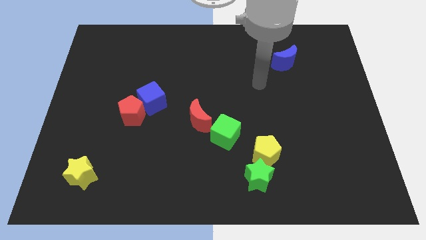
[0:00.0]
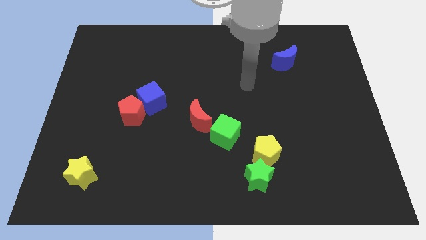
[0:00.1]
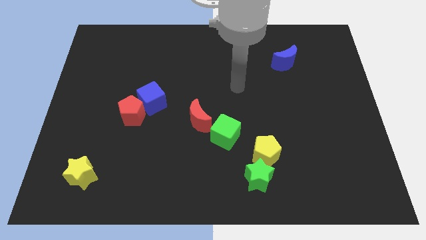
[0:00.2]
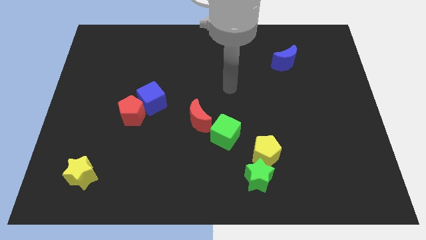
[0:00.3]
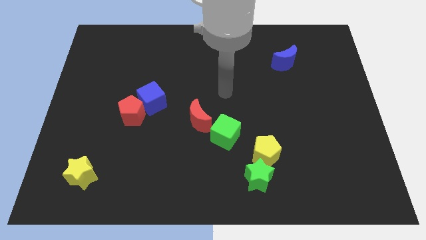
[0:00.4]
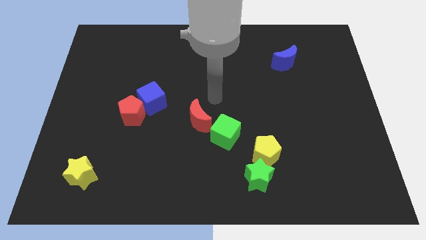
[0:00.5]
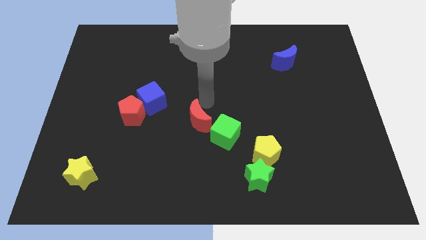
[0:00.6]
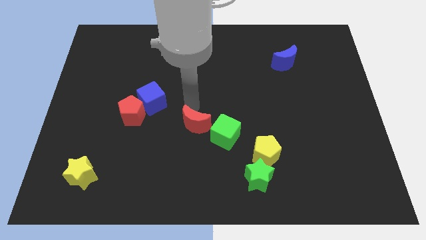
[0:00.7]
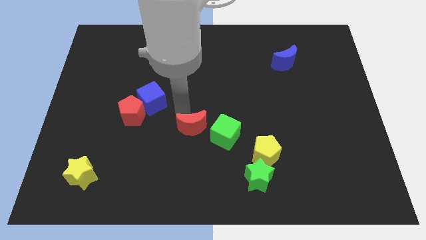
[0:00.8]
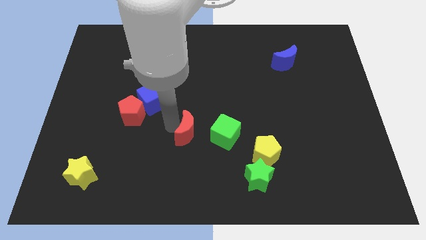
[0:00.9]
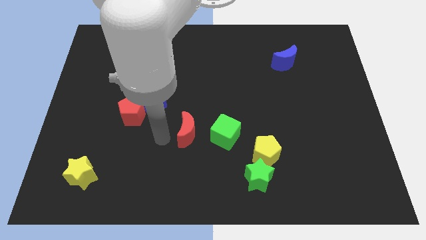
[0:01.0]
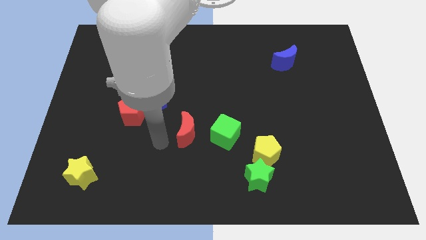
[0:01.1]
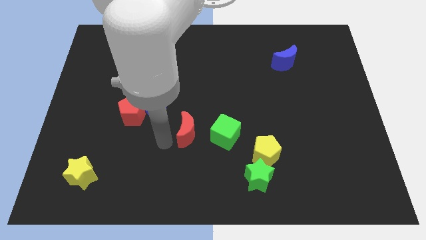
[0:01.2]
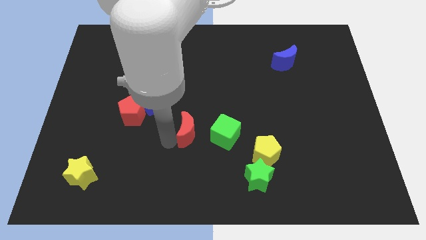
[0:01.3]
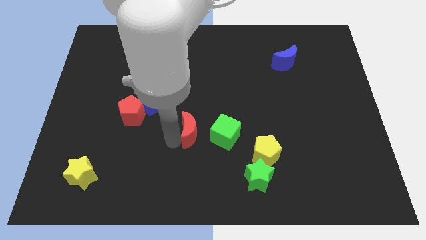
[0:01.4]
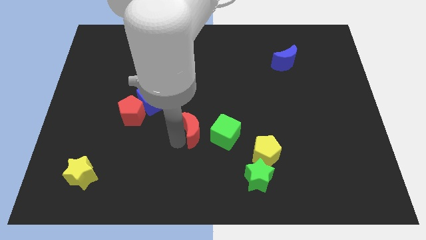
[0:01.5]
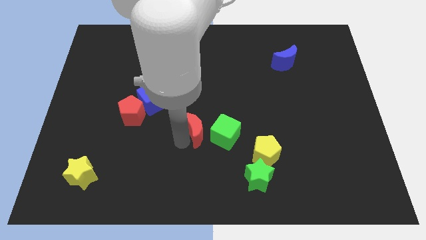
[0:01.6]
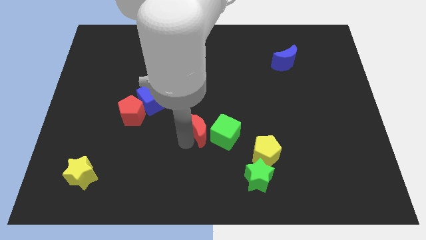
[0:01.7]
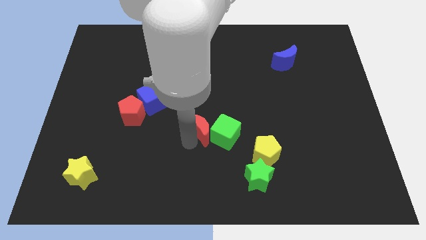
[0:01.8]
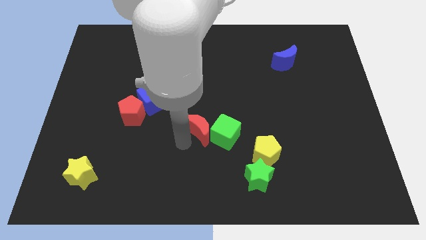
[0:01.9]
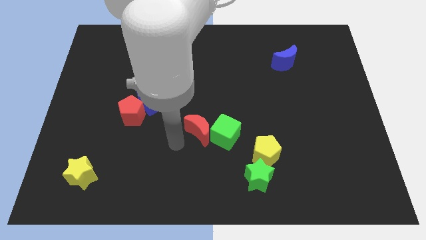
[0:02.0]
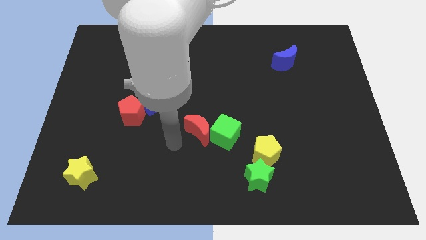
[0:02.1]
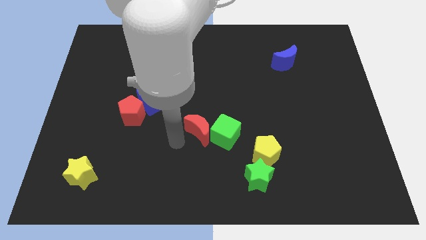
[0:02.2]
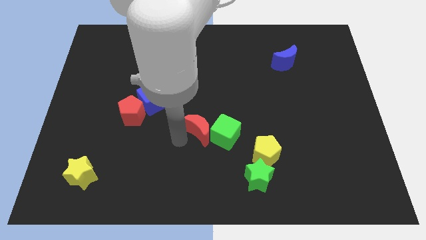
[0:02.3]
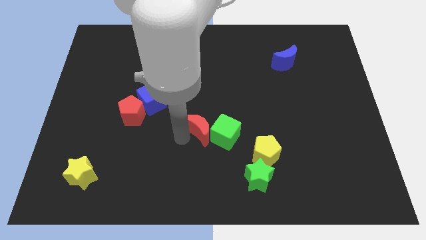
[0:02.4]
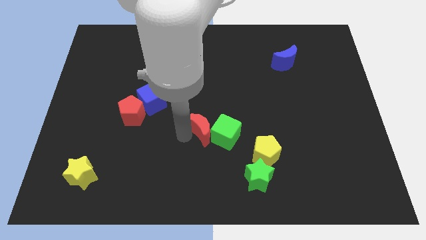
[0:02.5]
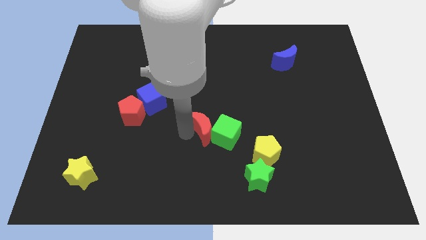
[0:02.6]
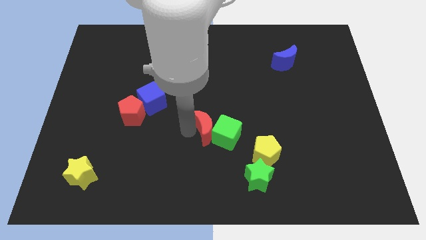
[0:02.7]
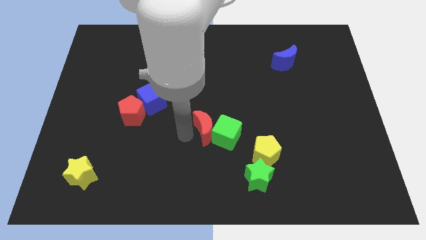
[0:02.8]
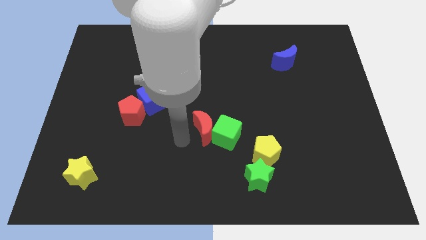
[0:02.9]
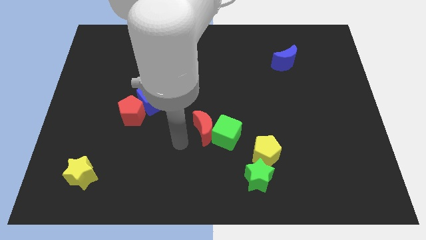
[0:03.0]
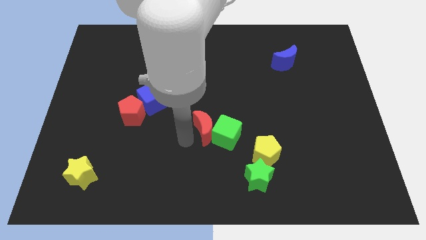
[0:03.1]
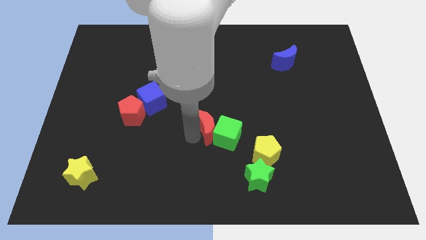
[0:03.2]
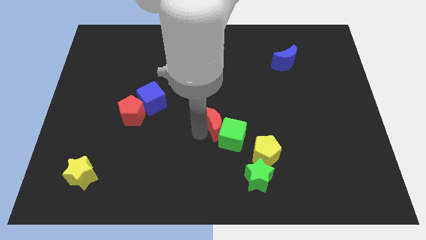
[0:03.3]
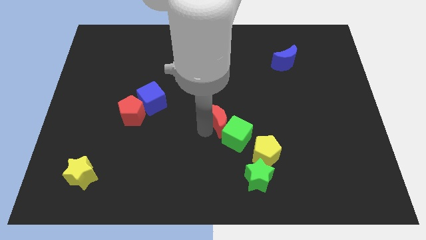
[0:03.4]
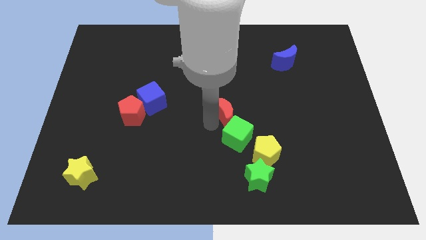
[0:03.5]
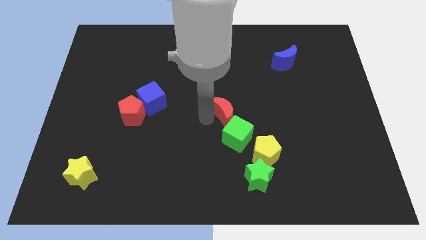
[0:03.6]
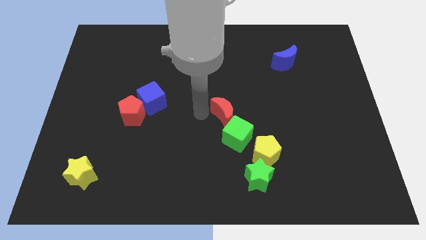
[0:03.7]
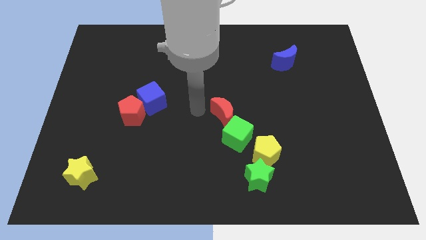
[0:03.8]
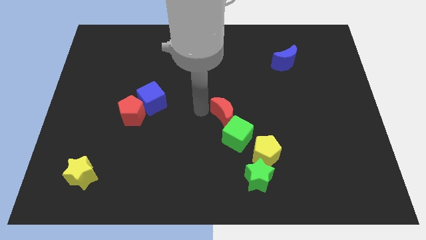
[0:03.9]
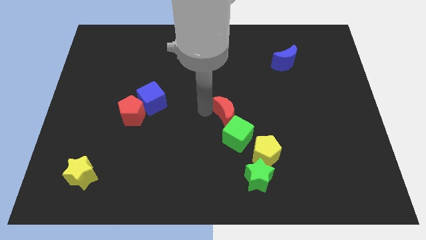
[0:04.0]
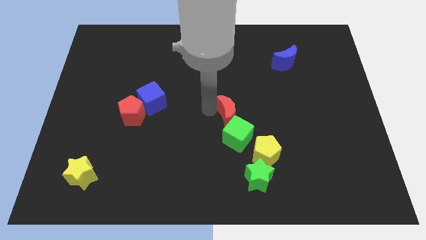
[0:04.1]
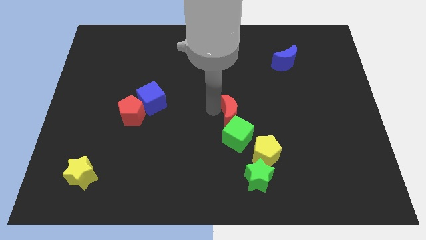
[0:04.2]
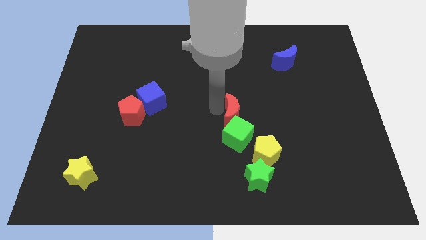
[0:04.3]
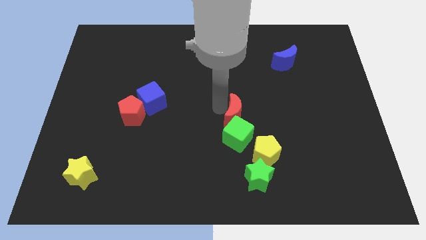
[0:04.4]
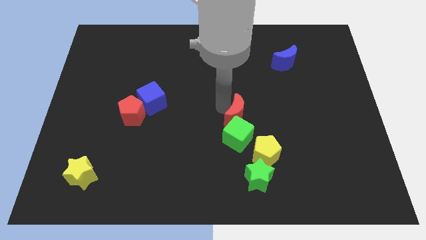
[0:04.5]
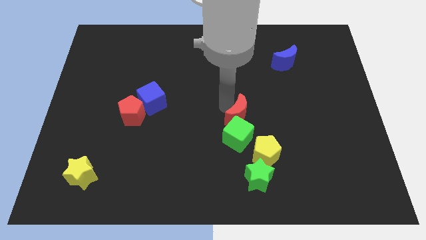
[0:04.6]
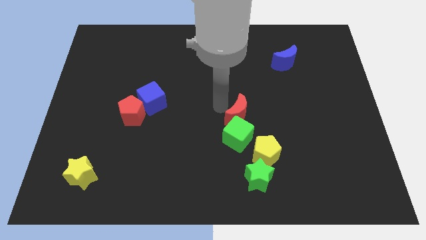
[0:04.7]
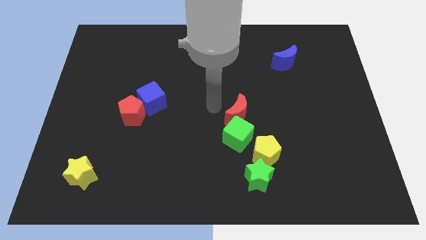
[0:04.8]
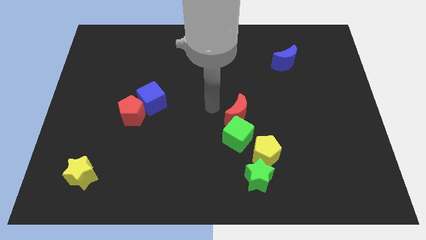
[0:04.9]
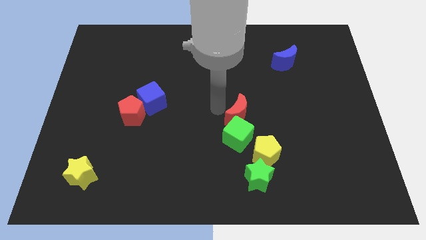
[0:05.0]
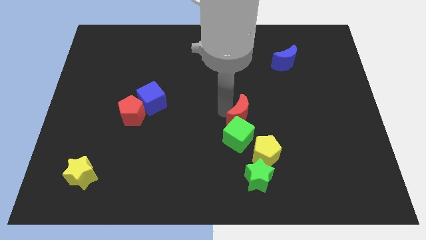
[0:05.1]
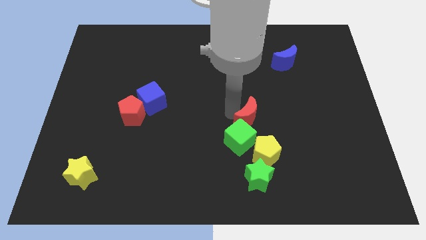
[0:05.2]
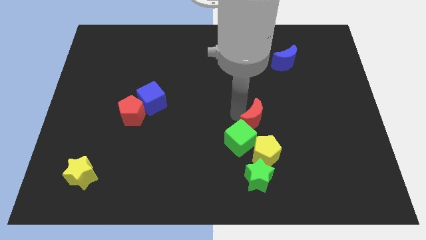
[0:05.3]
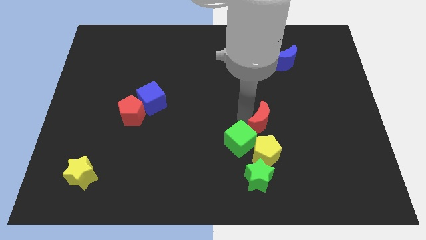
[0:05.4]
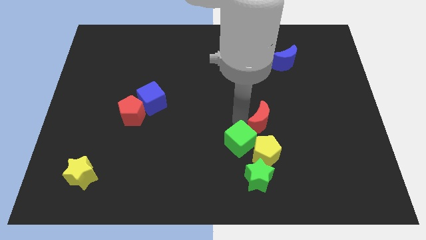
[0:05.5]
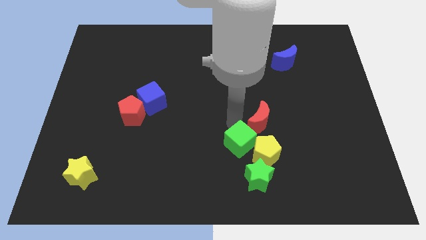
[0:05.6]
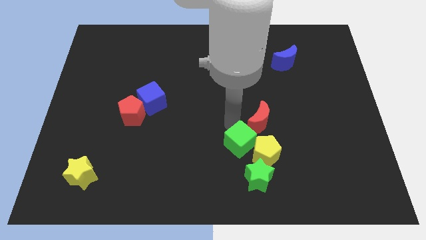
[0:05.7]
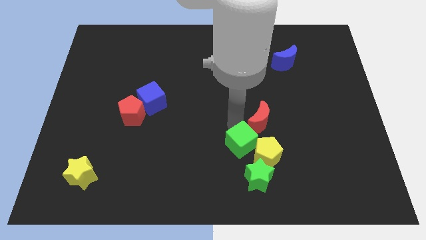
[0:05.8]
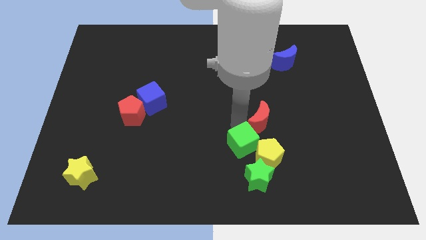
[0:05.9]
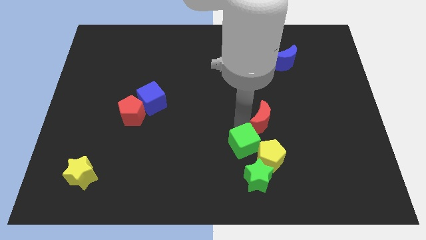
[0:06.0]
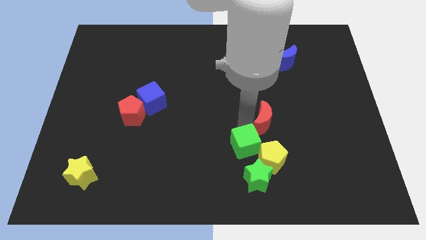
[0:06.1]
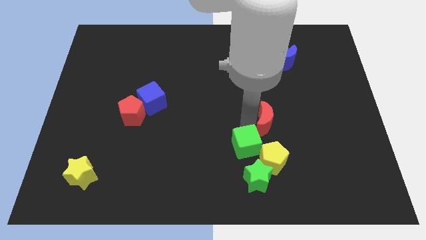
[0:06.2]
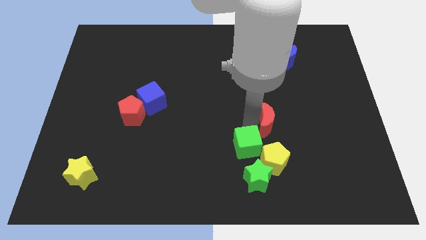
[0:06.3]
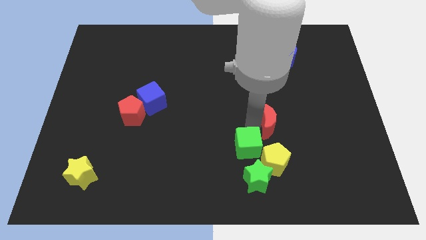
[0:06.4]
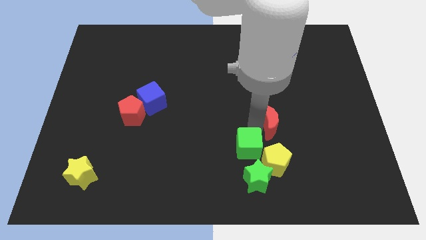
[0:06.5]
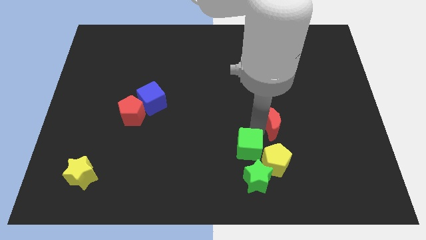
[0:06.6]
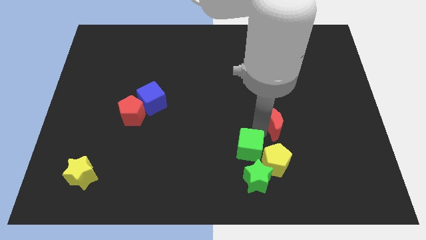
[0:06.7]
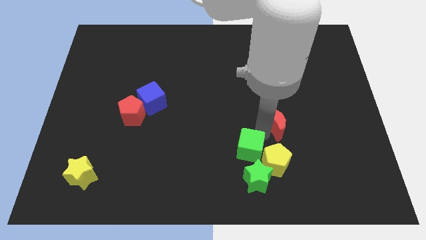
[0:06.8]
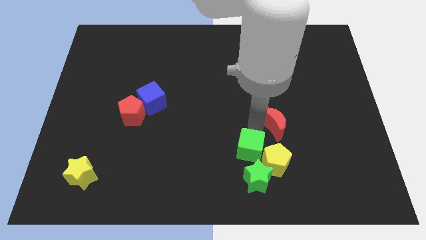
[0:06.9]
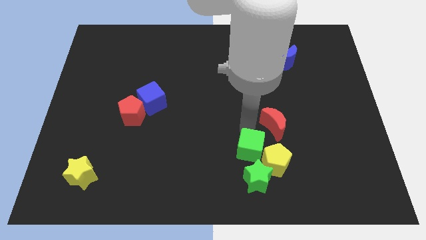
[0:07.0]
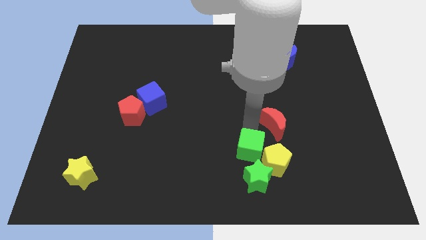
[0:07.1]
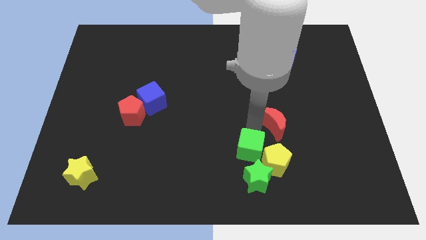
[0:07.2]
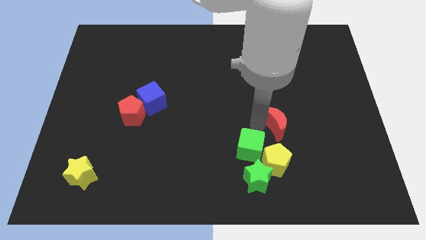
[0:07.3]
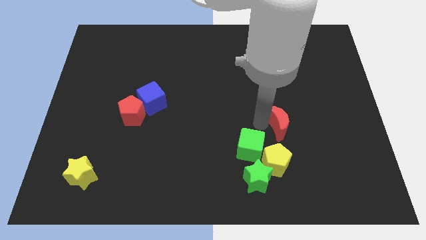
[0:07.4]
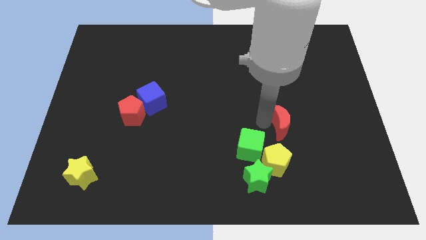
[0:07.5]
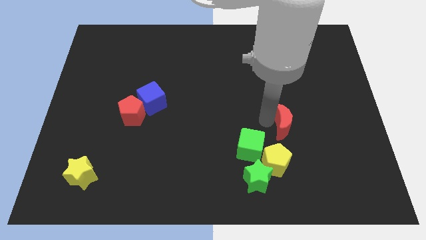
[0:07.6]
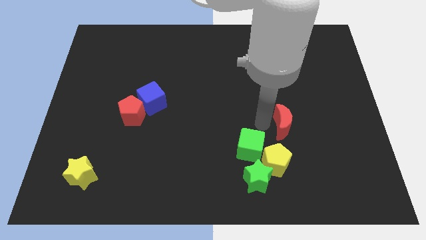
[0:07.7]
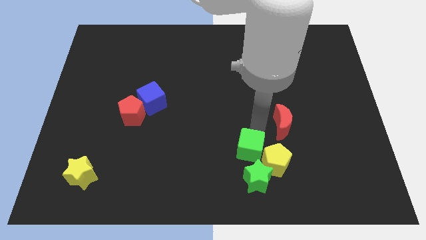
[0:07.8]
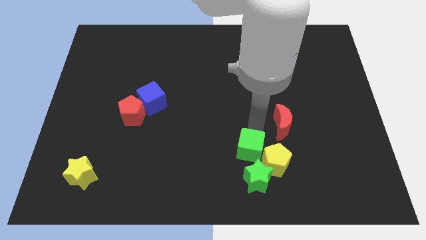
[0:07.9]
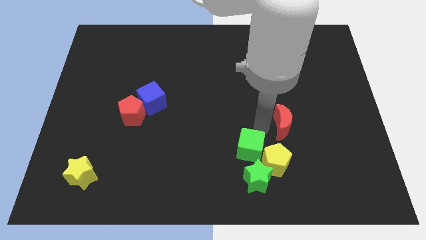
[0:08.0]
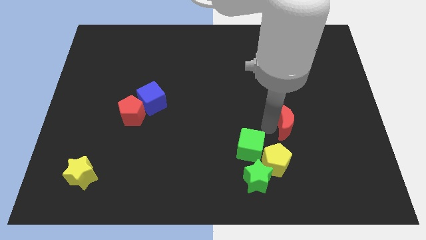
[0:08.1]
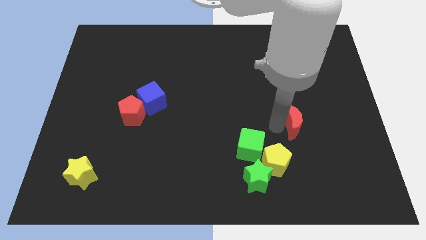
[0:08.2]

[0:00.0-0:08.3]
slide the red moon to the right
